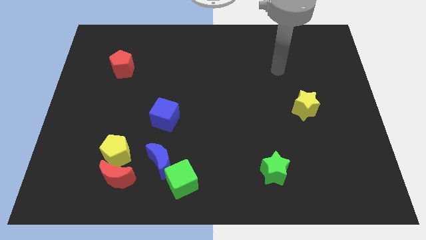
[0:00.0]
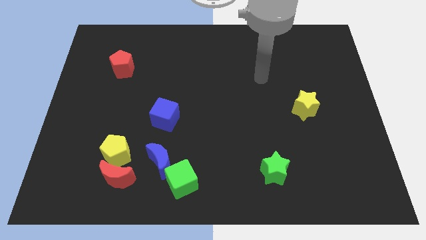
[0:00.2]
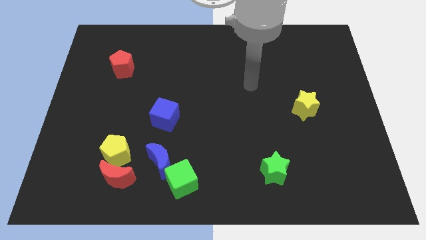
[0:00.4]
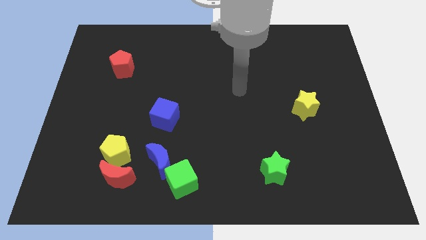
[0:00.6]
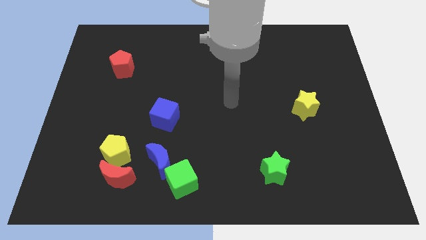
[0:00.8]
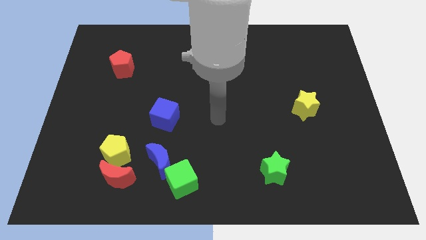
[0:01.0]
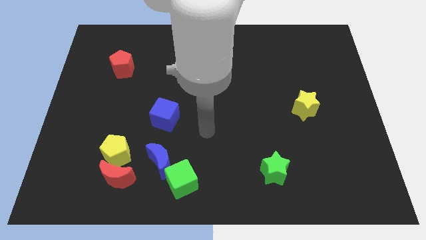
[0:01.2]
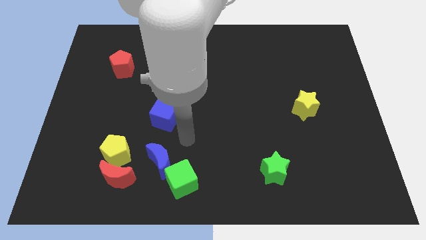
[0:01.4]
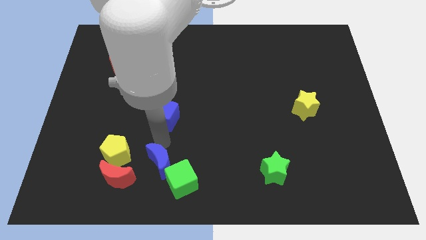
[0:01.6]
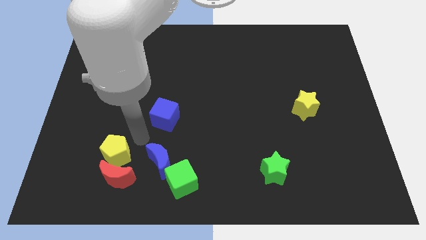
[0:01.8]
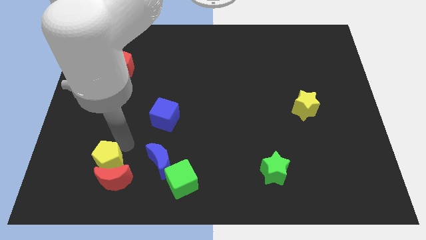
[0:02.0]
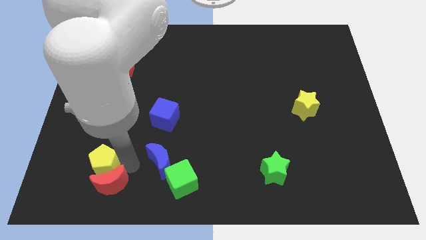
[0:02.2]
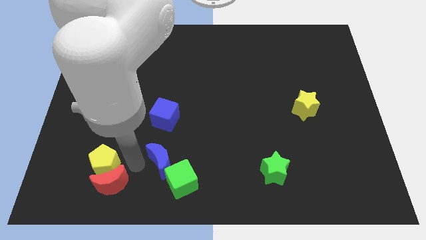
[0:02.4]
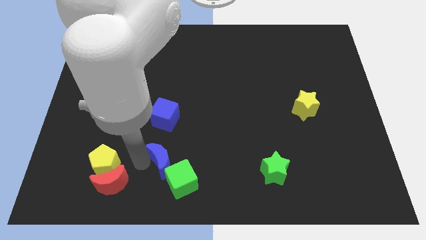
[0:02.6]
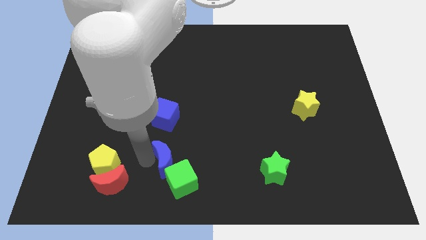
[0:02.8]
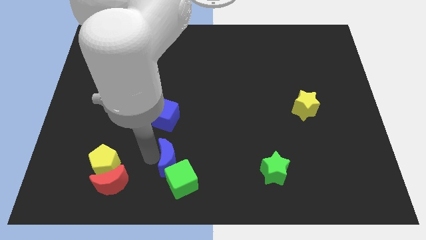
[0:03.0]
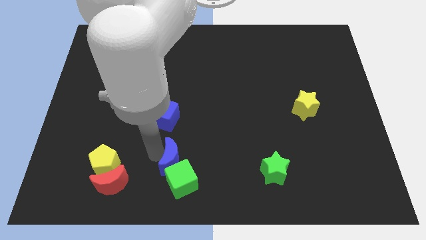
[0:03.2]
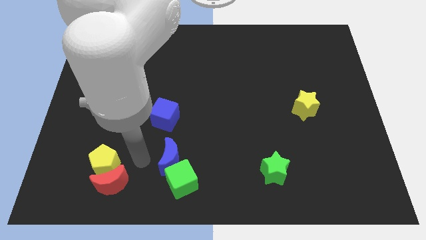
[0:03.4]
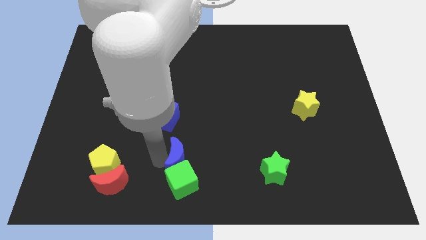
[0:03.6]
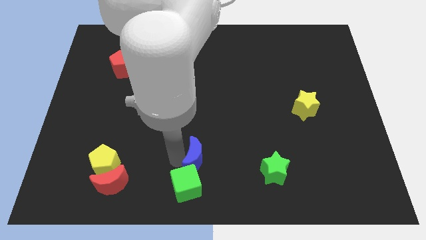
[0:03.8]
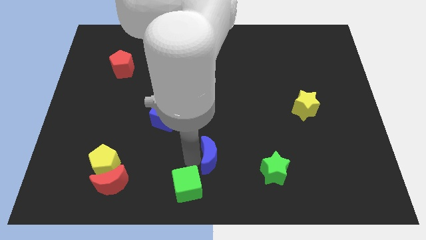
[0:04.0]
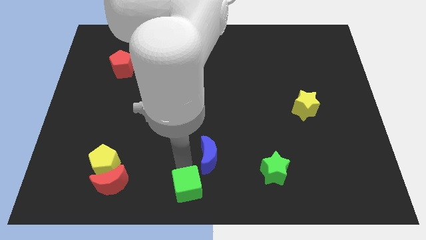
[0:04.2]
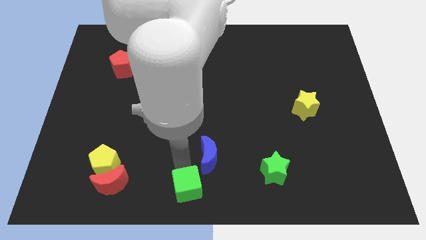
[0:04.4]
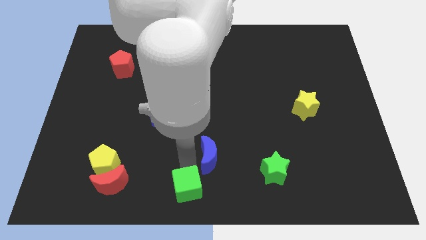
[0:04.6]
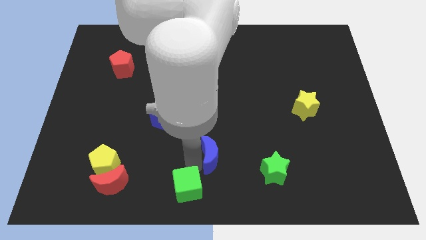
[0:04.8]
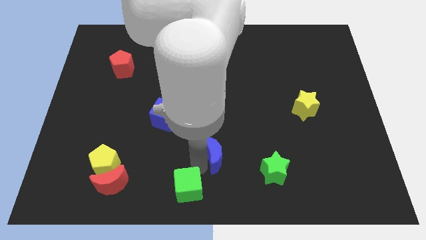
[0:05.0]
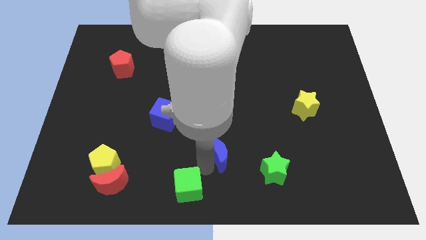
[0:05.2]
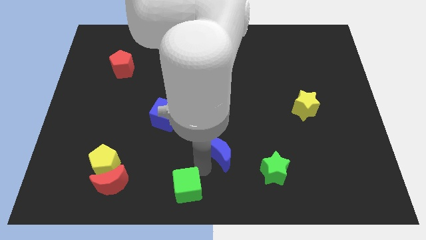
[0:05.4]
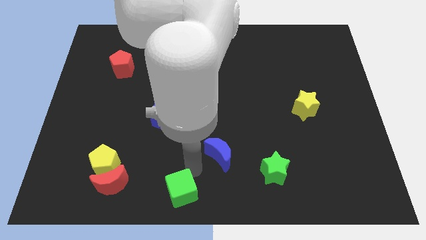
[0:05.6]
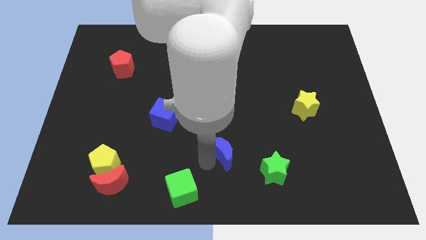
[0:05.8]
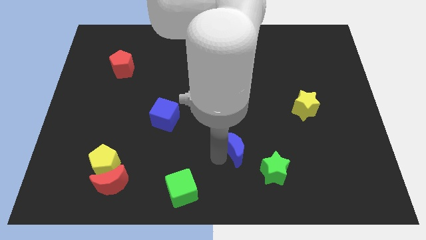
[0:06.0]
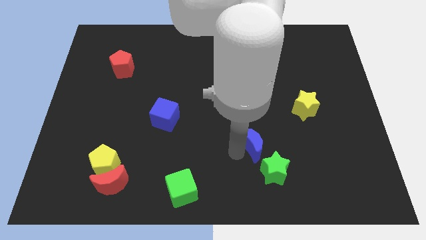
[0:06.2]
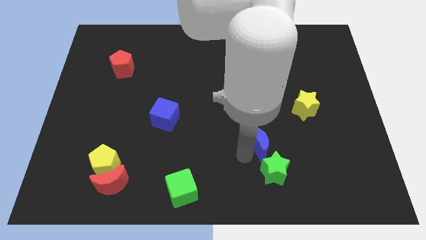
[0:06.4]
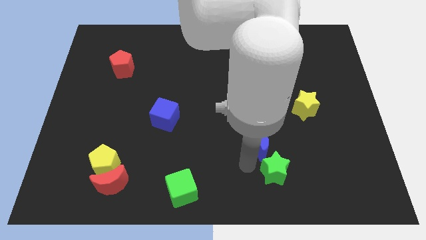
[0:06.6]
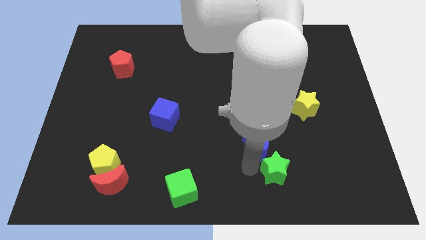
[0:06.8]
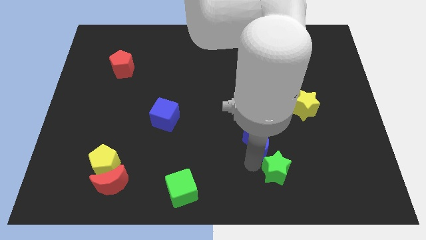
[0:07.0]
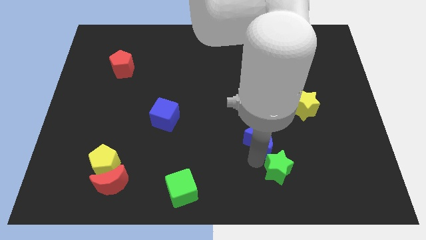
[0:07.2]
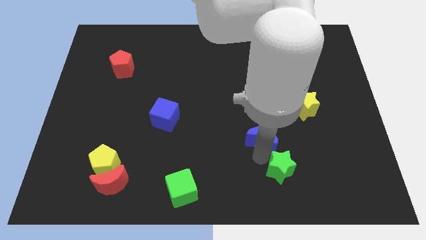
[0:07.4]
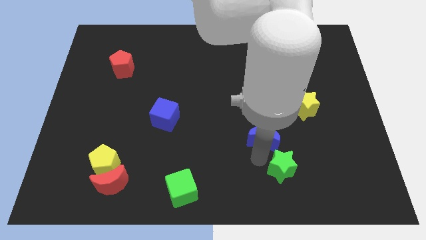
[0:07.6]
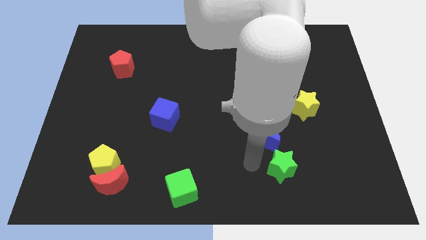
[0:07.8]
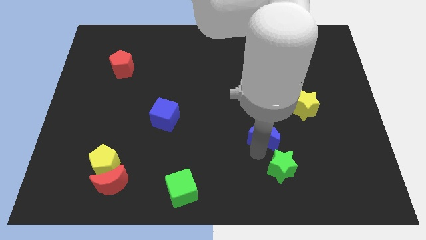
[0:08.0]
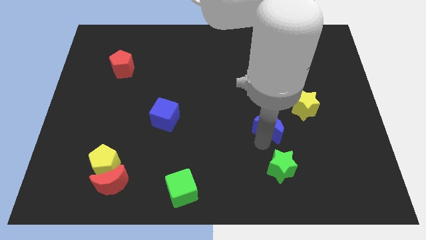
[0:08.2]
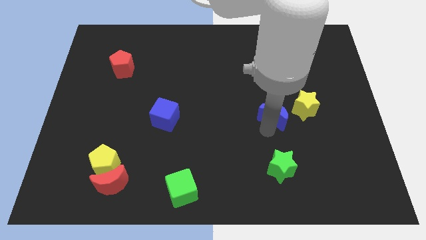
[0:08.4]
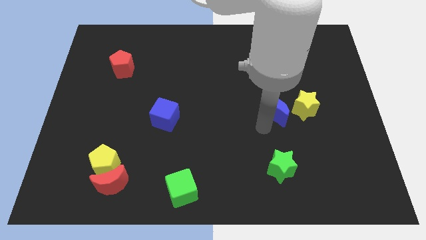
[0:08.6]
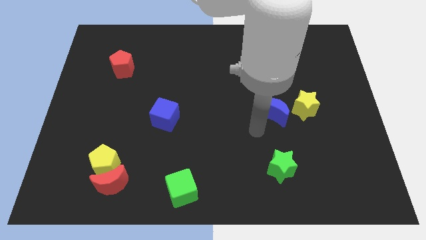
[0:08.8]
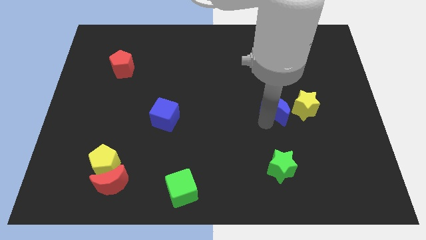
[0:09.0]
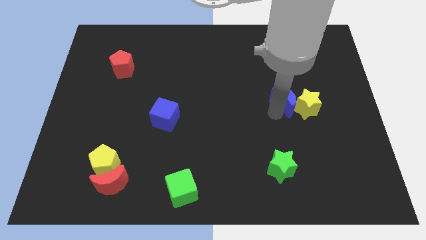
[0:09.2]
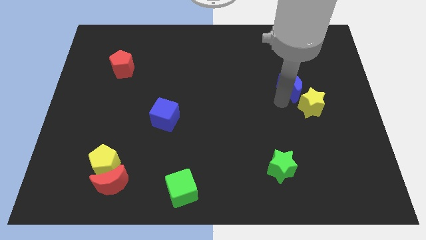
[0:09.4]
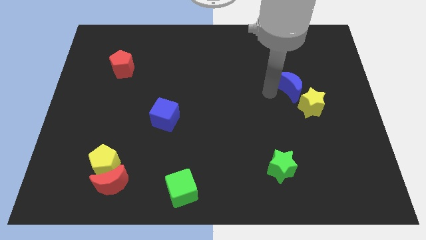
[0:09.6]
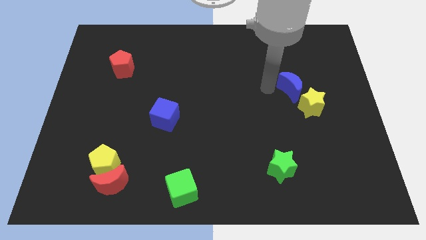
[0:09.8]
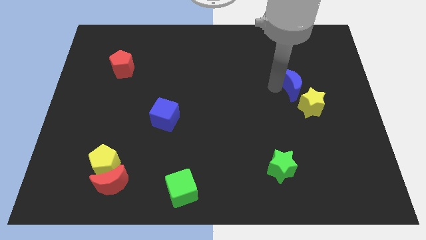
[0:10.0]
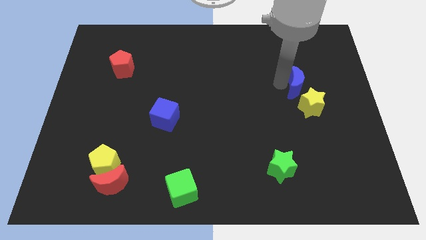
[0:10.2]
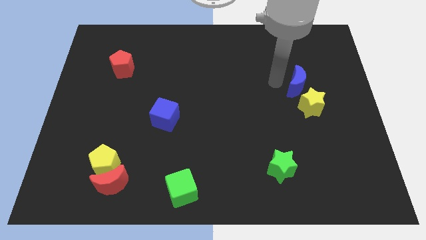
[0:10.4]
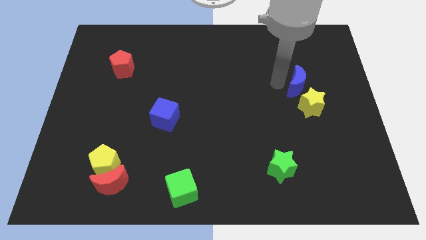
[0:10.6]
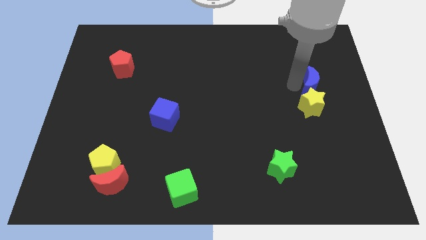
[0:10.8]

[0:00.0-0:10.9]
slide the blue moon diagonally up and to the right of the yellow star

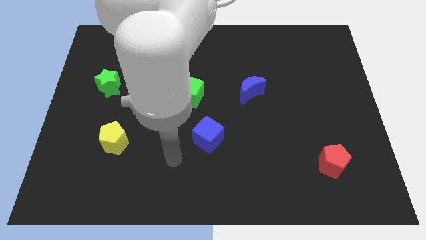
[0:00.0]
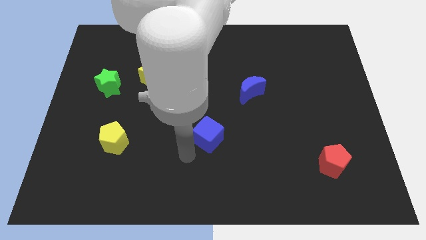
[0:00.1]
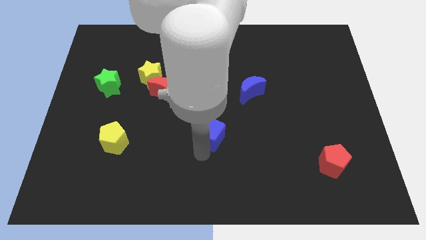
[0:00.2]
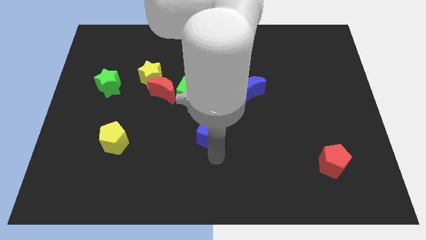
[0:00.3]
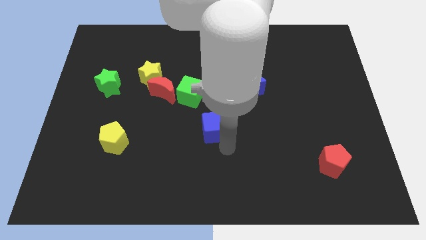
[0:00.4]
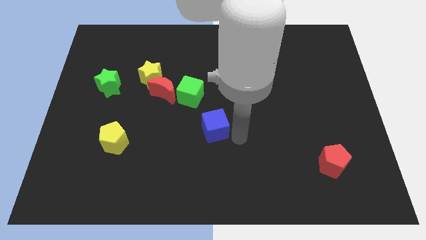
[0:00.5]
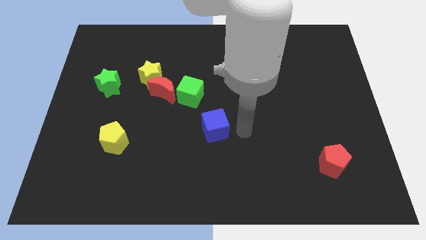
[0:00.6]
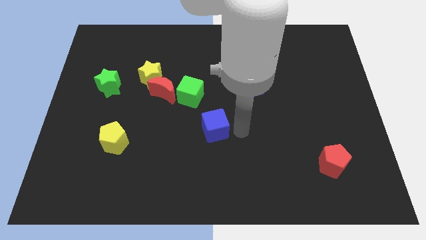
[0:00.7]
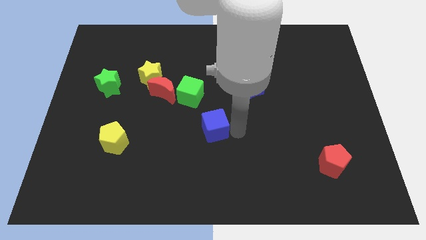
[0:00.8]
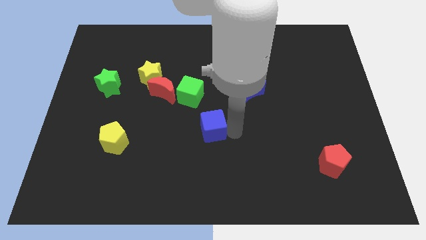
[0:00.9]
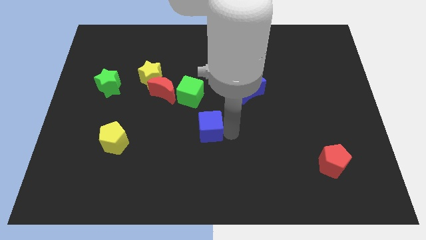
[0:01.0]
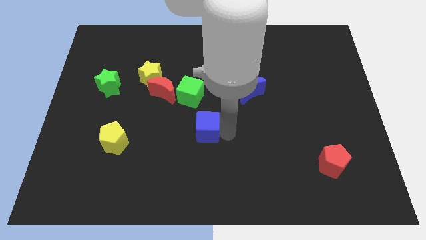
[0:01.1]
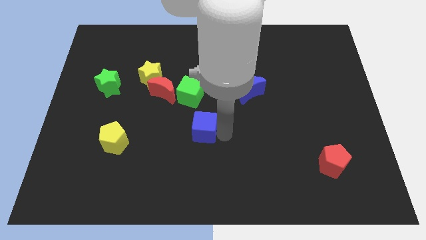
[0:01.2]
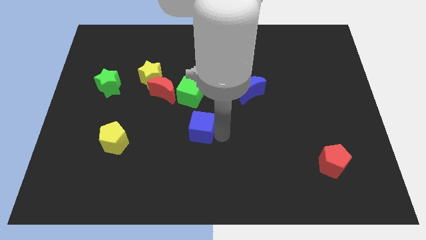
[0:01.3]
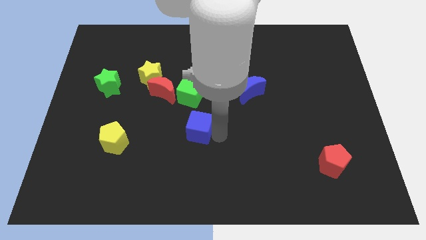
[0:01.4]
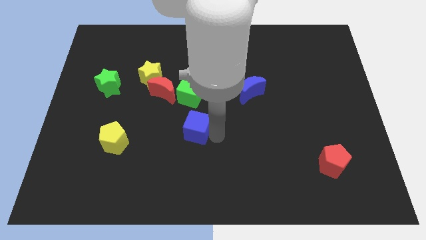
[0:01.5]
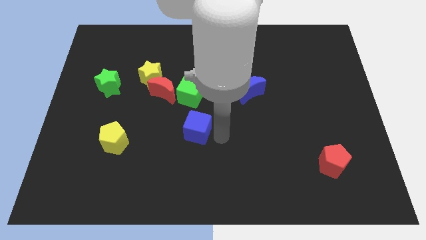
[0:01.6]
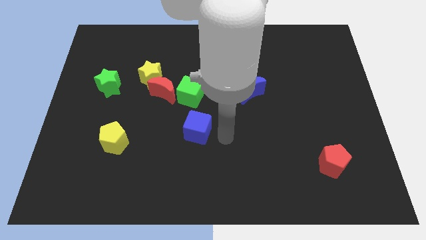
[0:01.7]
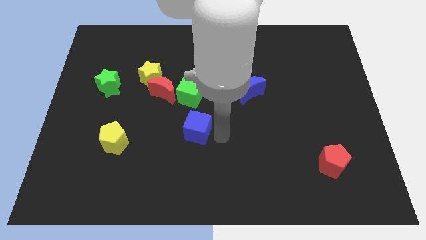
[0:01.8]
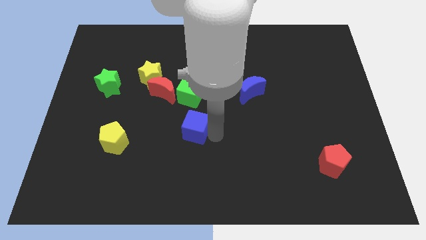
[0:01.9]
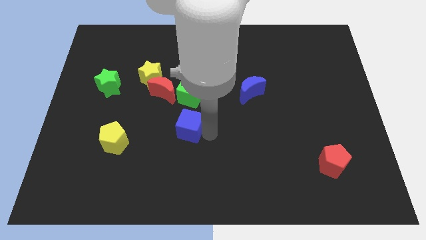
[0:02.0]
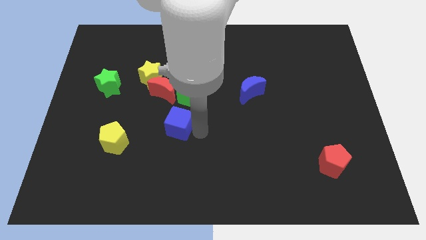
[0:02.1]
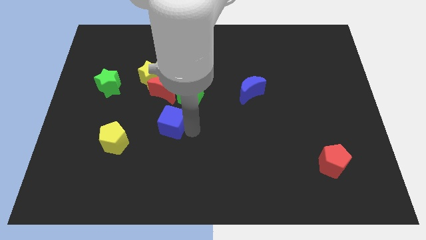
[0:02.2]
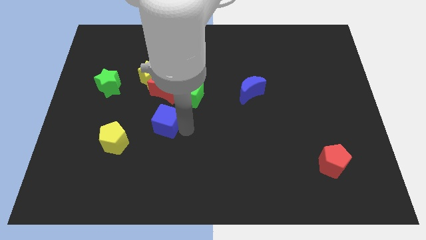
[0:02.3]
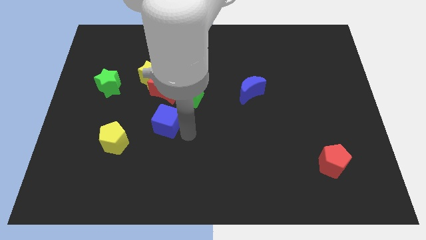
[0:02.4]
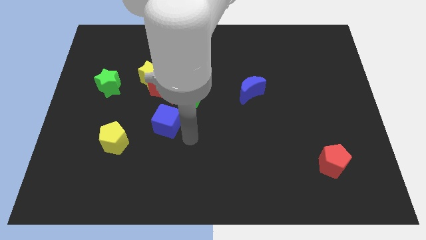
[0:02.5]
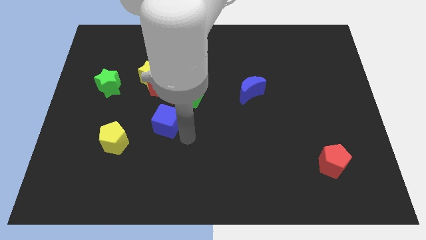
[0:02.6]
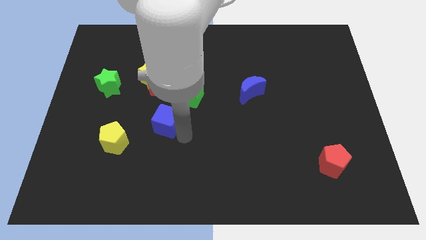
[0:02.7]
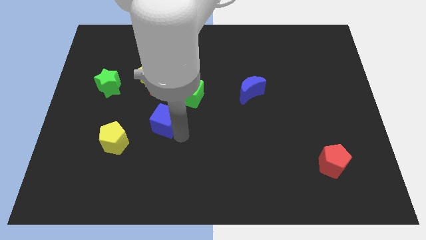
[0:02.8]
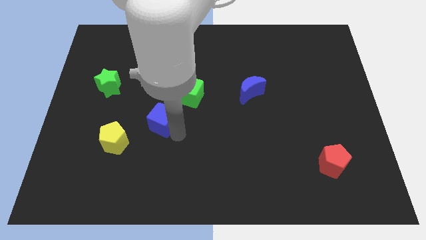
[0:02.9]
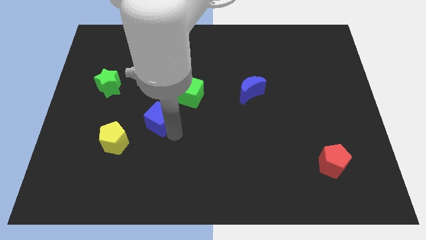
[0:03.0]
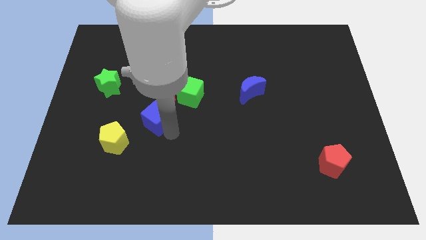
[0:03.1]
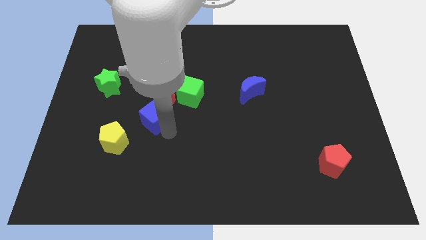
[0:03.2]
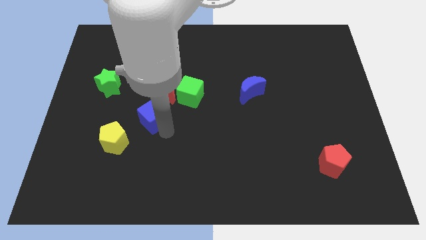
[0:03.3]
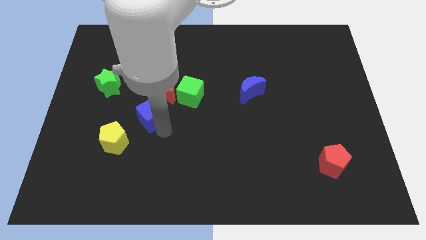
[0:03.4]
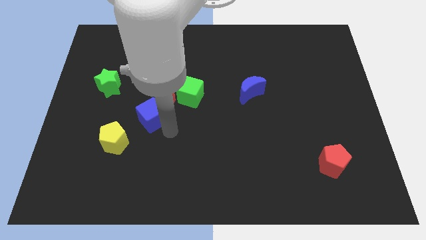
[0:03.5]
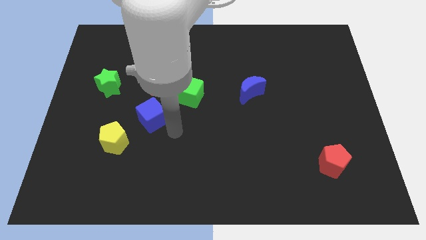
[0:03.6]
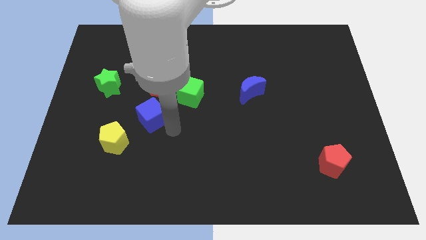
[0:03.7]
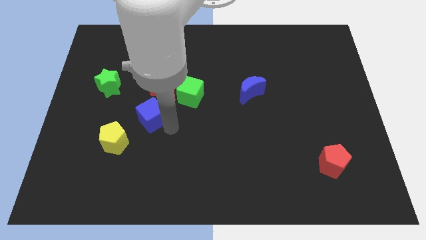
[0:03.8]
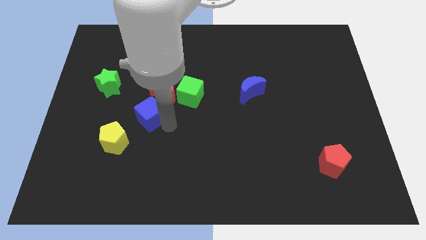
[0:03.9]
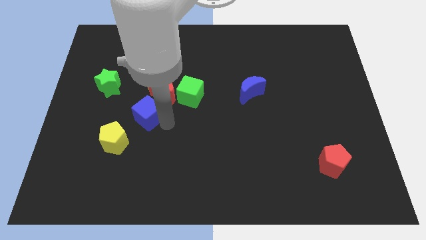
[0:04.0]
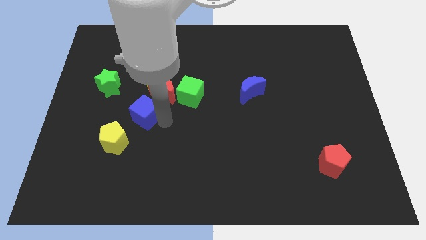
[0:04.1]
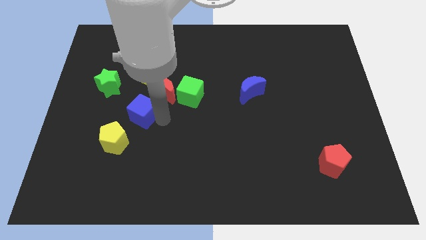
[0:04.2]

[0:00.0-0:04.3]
move the blue cube diagonally down and to the right of the green star
